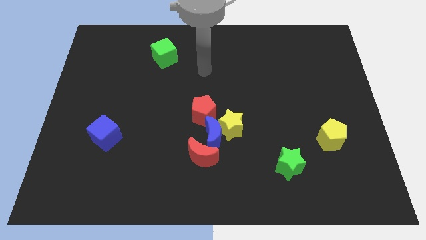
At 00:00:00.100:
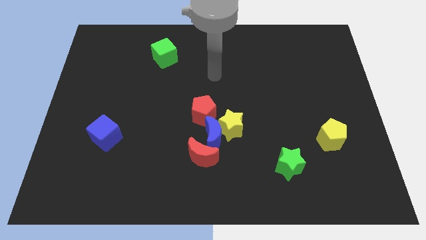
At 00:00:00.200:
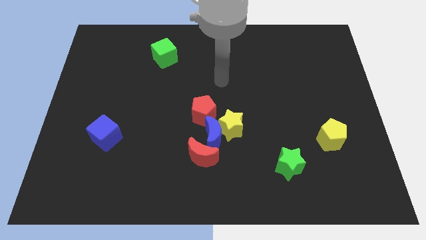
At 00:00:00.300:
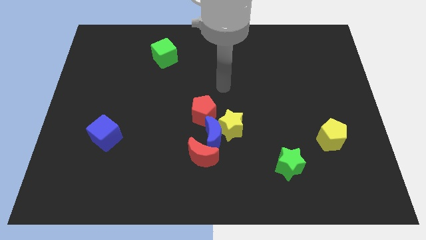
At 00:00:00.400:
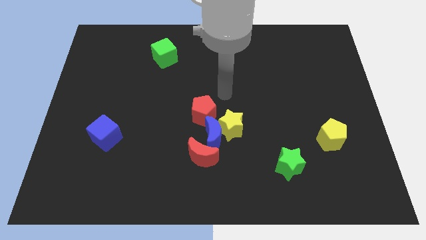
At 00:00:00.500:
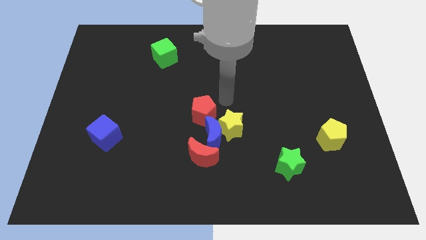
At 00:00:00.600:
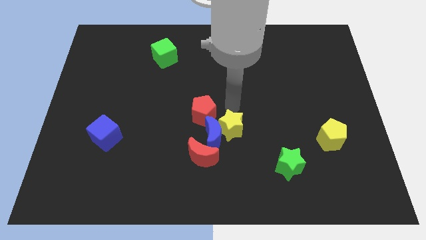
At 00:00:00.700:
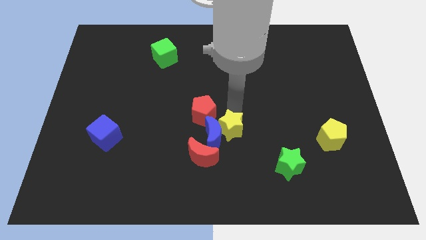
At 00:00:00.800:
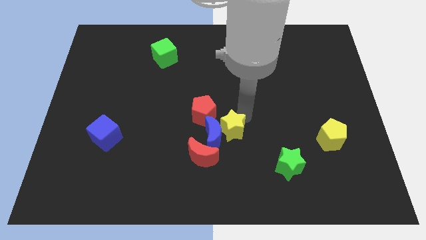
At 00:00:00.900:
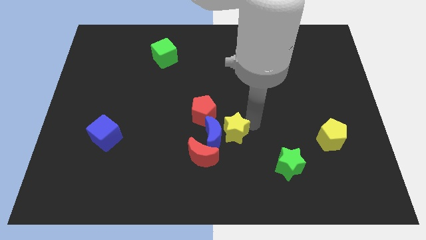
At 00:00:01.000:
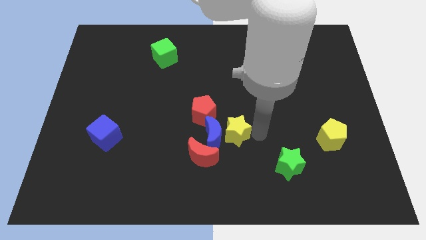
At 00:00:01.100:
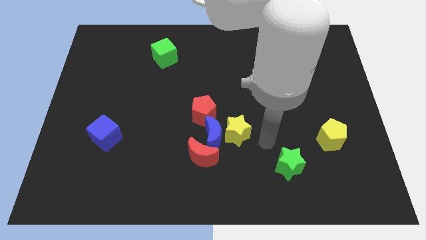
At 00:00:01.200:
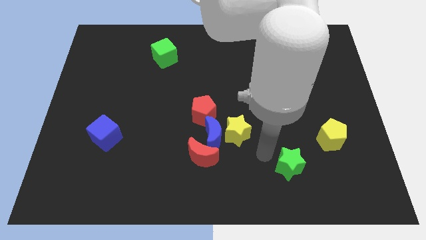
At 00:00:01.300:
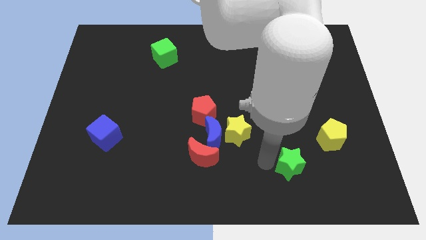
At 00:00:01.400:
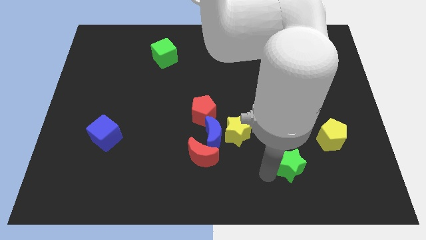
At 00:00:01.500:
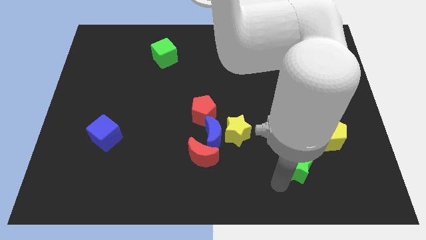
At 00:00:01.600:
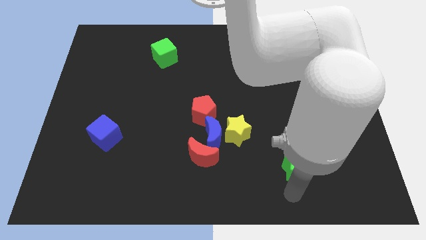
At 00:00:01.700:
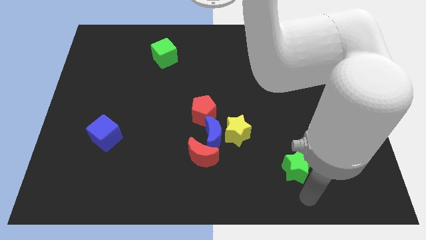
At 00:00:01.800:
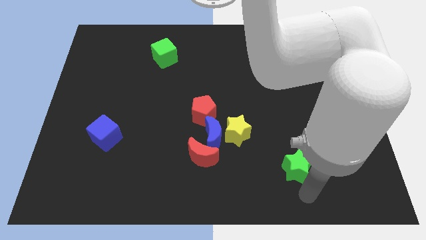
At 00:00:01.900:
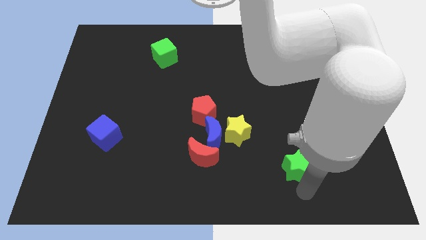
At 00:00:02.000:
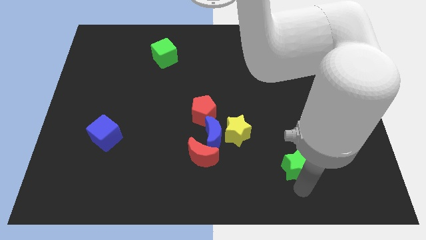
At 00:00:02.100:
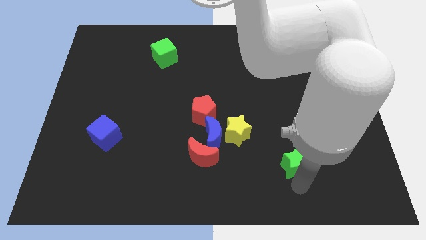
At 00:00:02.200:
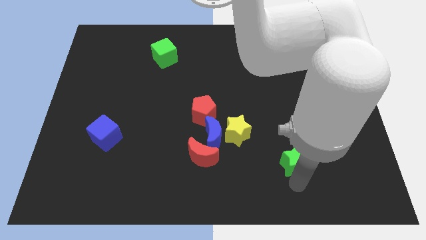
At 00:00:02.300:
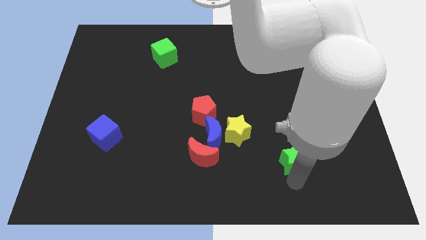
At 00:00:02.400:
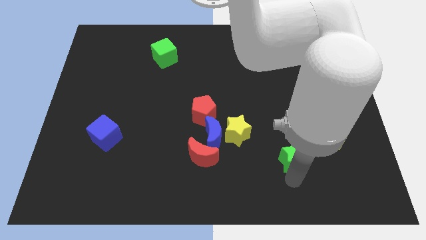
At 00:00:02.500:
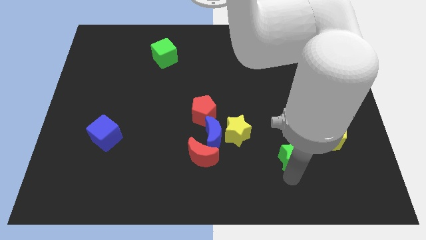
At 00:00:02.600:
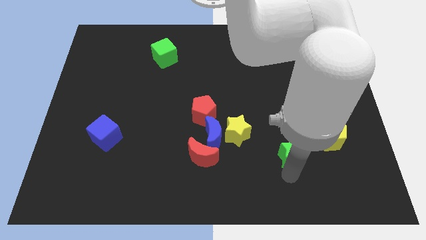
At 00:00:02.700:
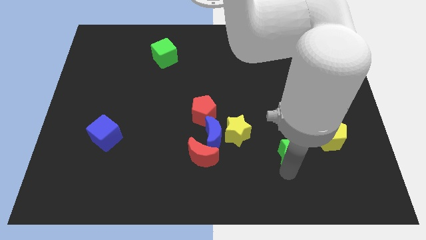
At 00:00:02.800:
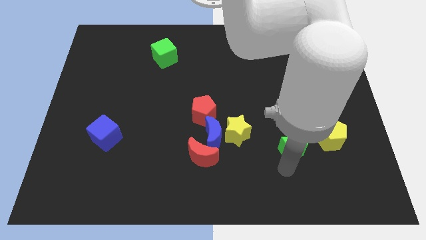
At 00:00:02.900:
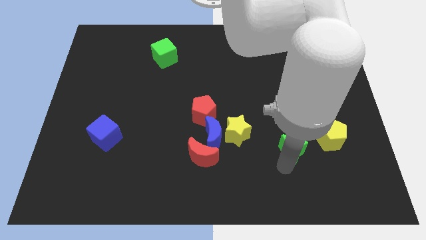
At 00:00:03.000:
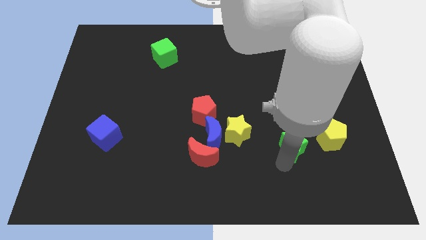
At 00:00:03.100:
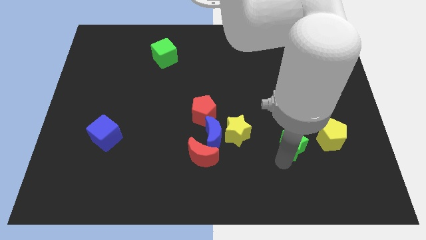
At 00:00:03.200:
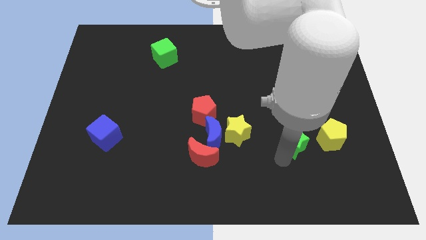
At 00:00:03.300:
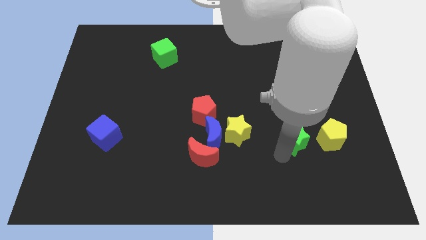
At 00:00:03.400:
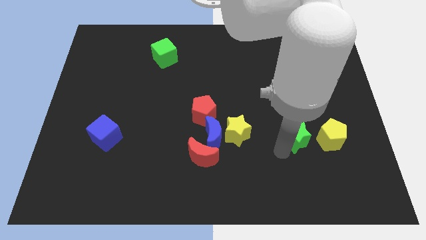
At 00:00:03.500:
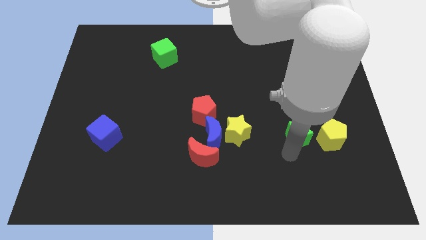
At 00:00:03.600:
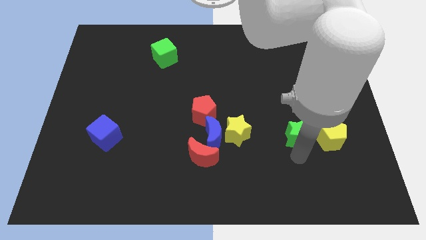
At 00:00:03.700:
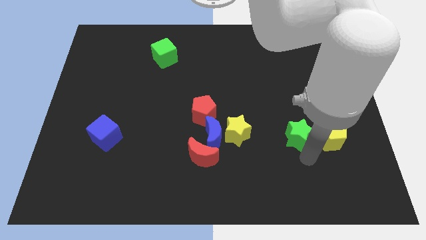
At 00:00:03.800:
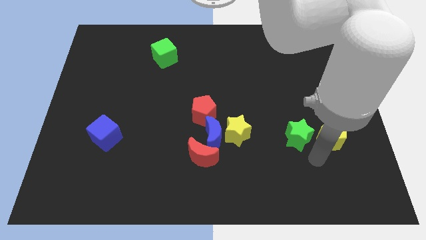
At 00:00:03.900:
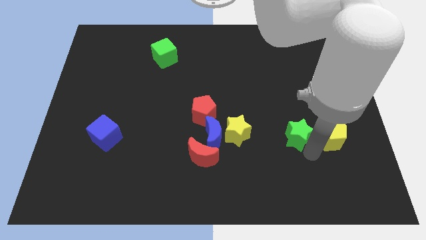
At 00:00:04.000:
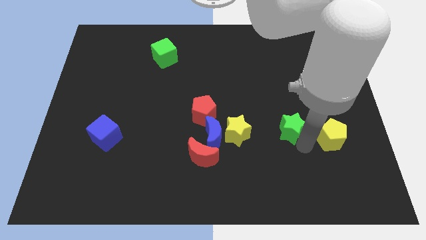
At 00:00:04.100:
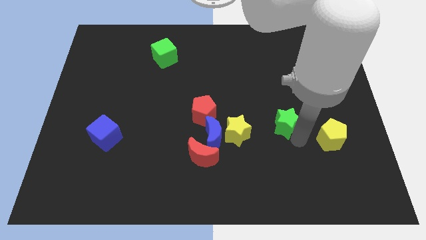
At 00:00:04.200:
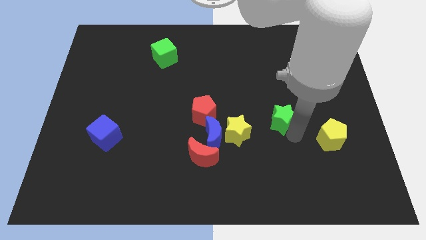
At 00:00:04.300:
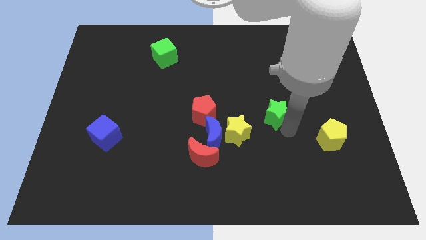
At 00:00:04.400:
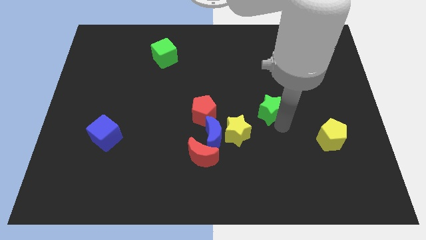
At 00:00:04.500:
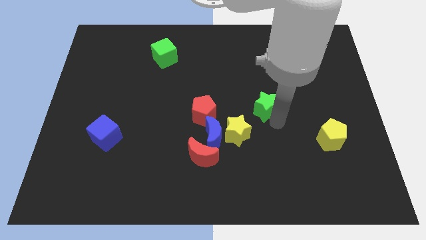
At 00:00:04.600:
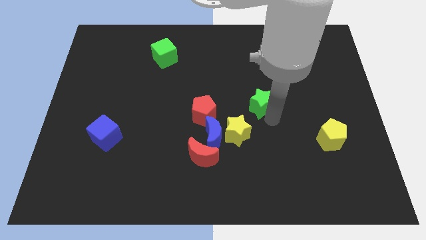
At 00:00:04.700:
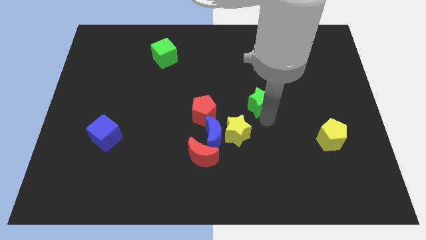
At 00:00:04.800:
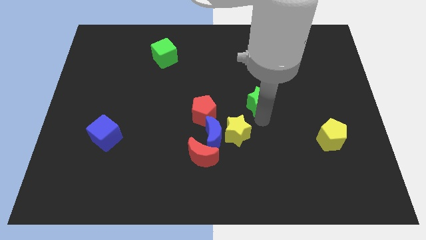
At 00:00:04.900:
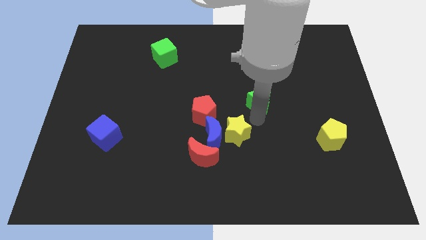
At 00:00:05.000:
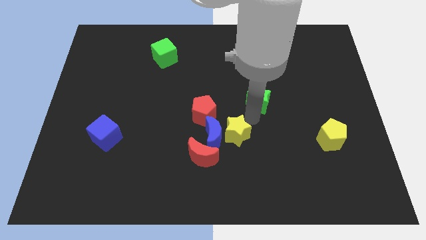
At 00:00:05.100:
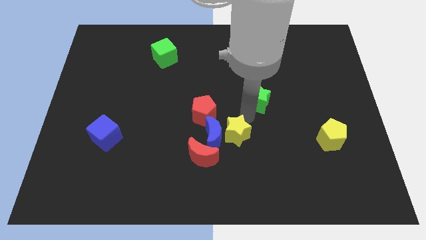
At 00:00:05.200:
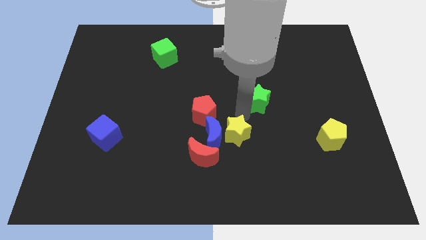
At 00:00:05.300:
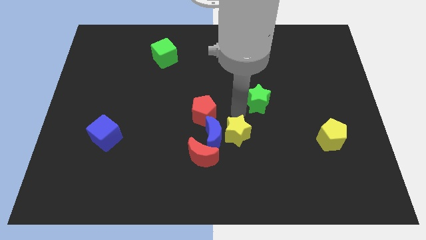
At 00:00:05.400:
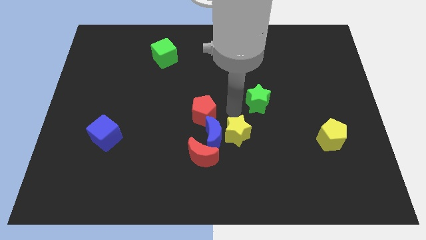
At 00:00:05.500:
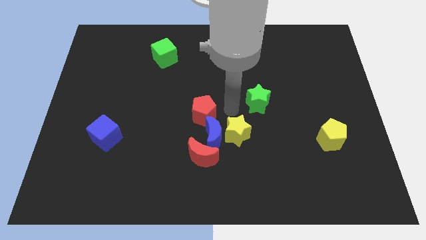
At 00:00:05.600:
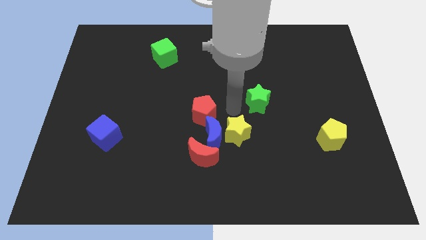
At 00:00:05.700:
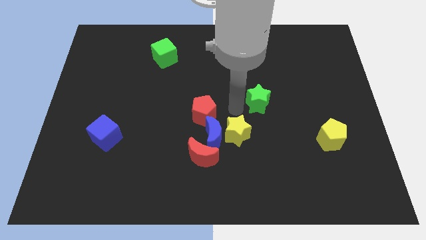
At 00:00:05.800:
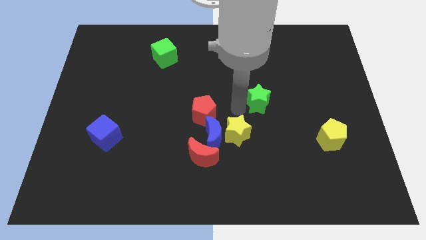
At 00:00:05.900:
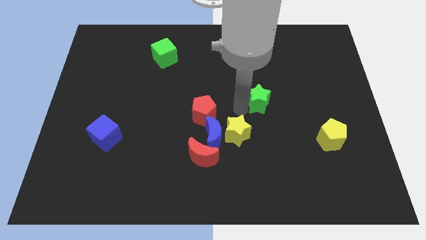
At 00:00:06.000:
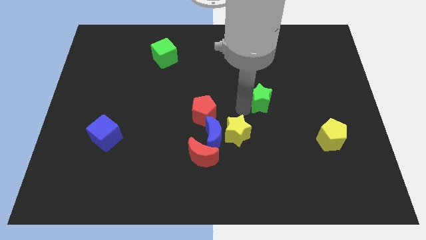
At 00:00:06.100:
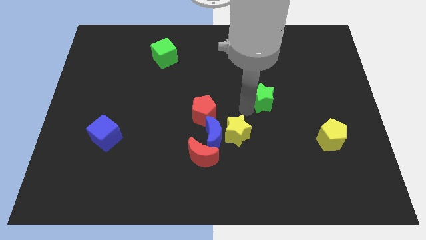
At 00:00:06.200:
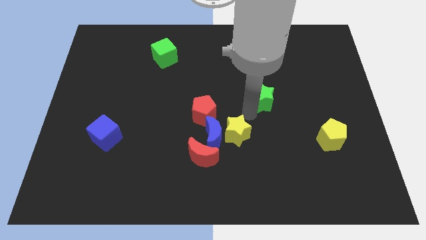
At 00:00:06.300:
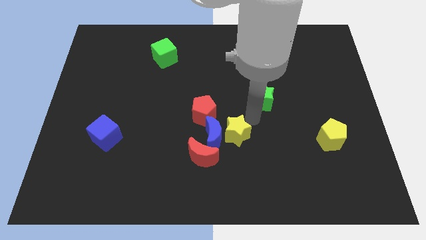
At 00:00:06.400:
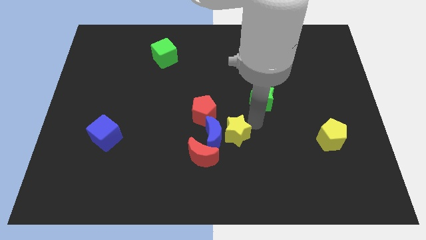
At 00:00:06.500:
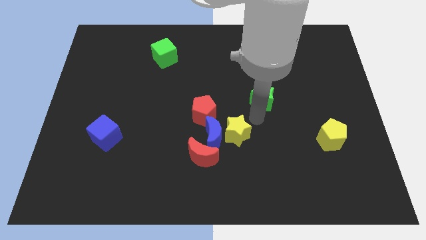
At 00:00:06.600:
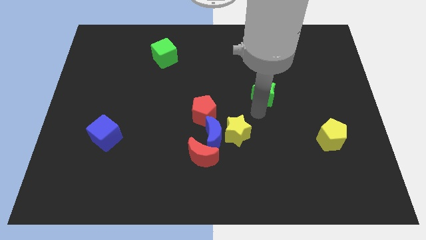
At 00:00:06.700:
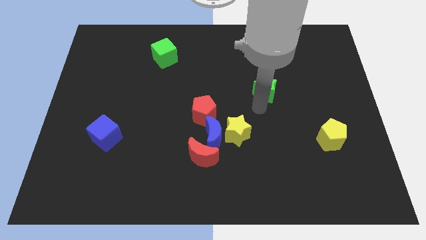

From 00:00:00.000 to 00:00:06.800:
move the green star up

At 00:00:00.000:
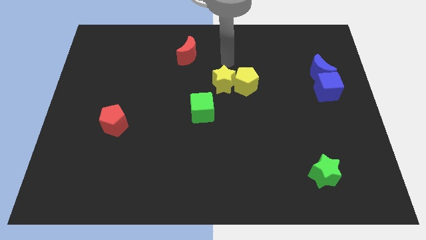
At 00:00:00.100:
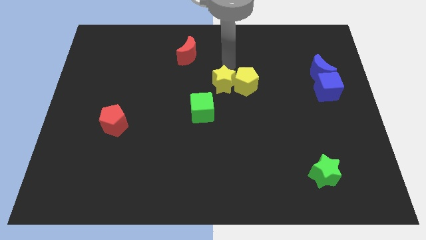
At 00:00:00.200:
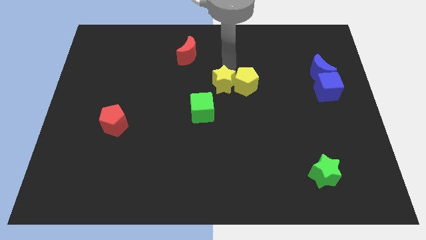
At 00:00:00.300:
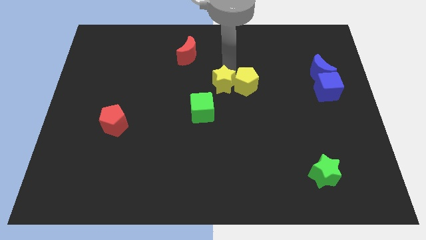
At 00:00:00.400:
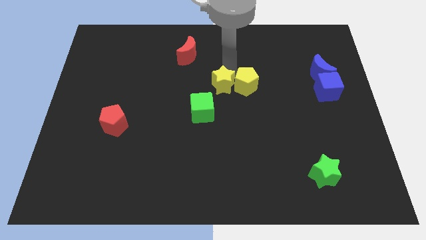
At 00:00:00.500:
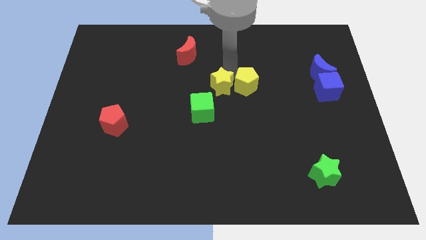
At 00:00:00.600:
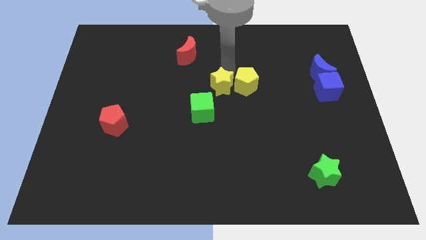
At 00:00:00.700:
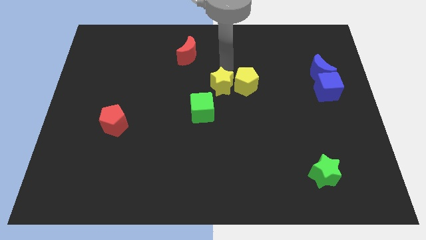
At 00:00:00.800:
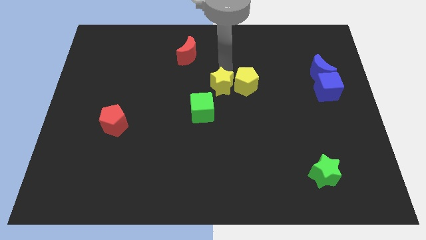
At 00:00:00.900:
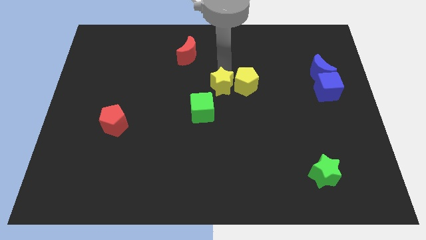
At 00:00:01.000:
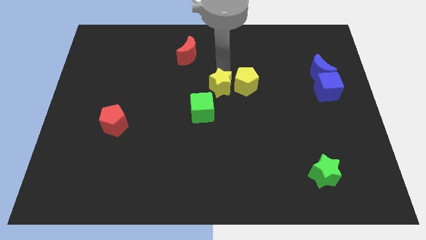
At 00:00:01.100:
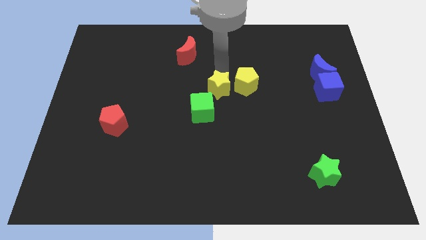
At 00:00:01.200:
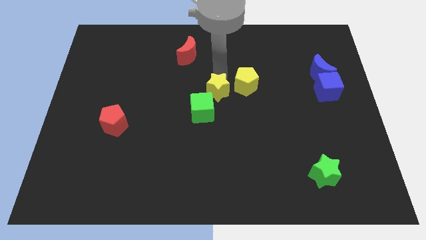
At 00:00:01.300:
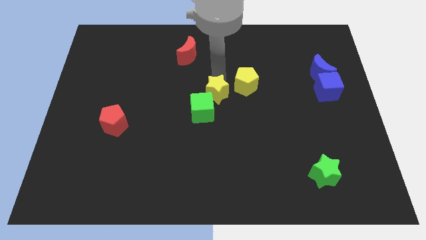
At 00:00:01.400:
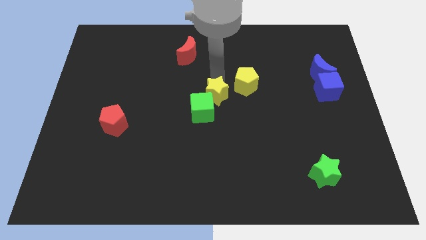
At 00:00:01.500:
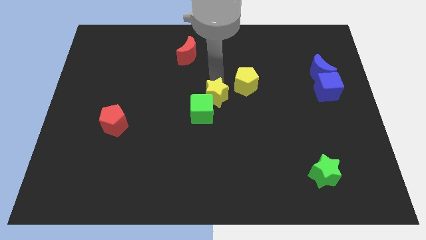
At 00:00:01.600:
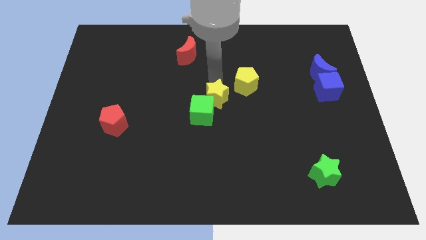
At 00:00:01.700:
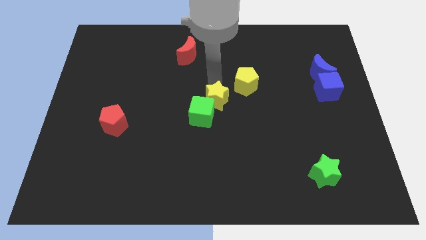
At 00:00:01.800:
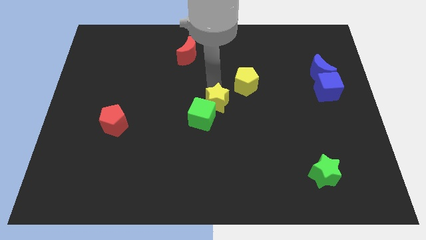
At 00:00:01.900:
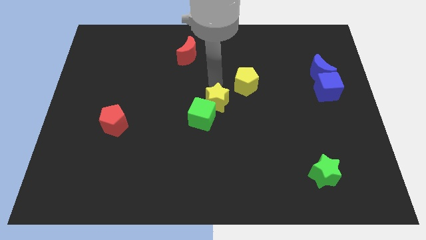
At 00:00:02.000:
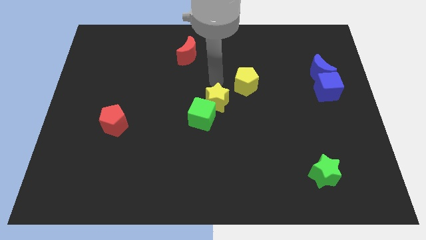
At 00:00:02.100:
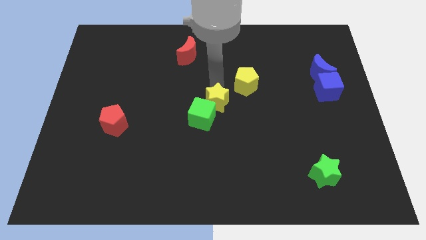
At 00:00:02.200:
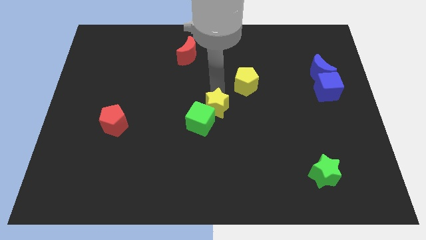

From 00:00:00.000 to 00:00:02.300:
slide the yellow star downwards slightly
